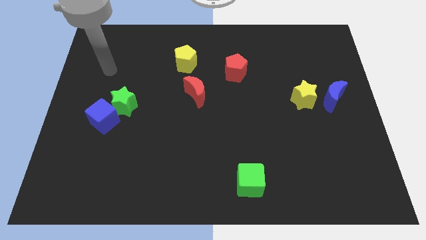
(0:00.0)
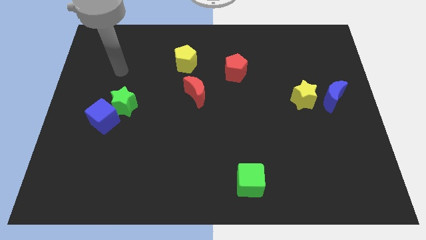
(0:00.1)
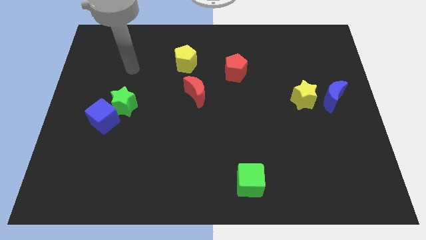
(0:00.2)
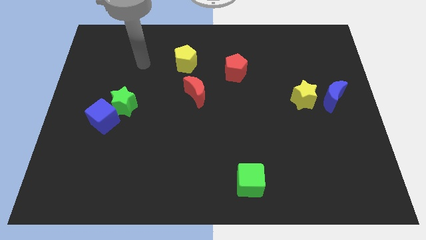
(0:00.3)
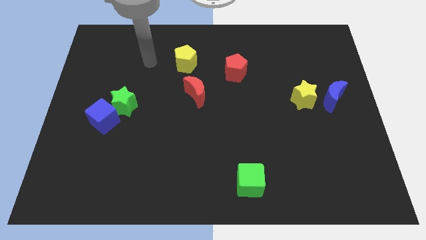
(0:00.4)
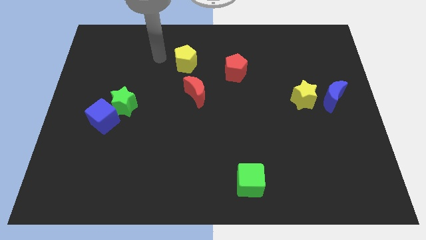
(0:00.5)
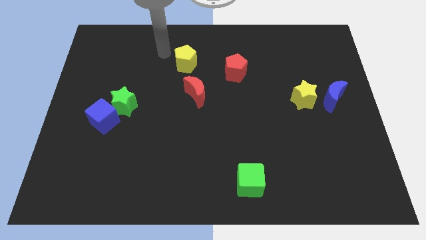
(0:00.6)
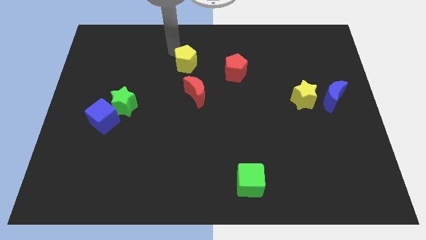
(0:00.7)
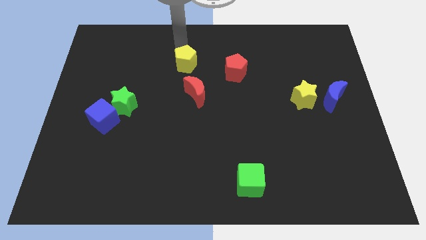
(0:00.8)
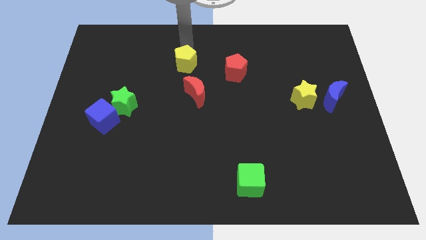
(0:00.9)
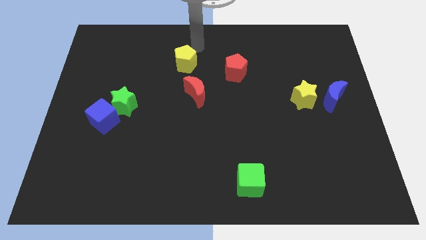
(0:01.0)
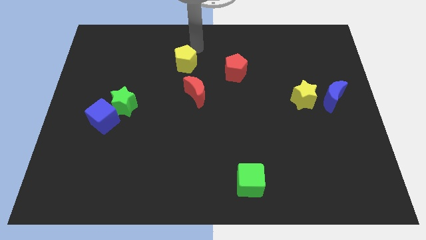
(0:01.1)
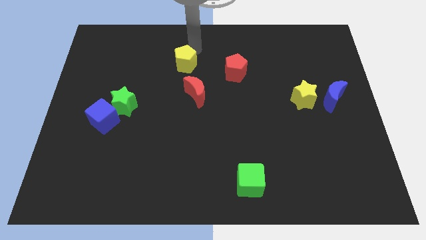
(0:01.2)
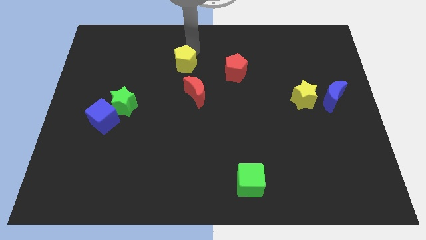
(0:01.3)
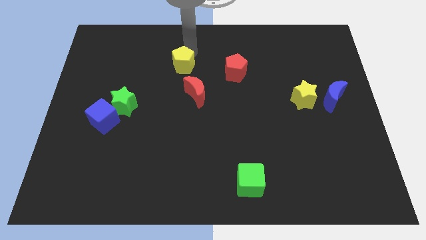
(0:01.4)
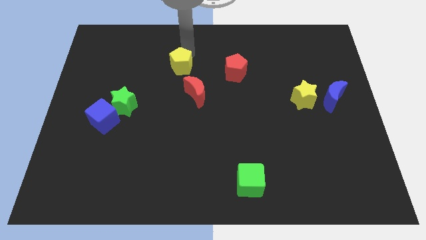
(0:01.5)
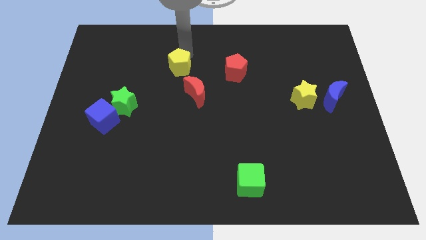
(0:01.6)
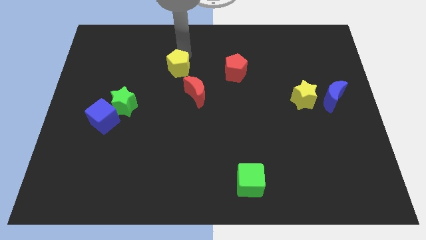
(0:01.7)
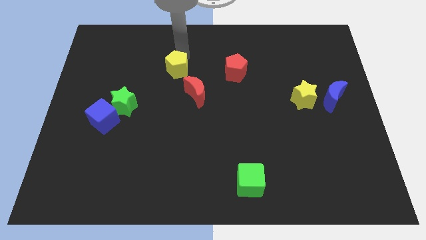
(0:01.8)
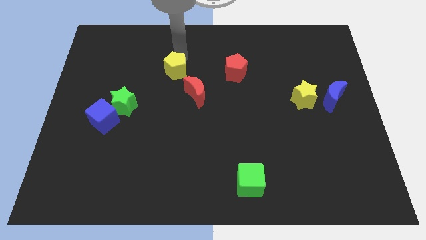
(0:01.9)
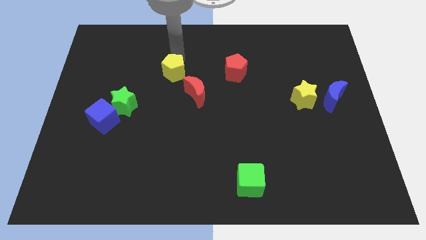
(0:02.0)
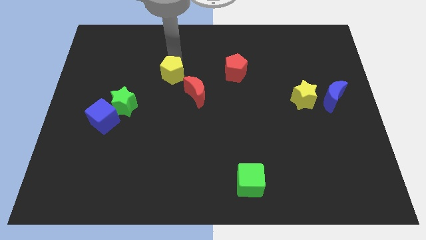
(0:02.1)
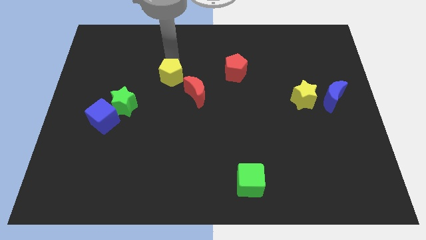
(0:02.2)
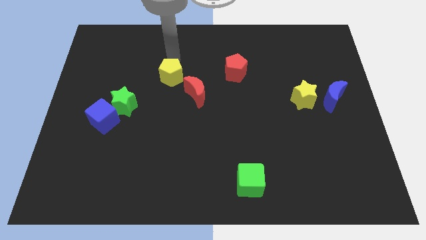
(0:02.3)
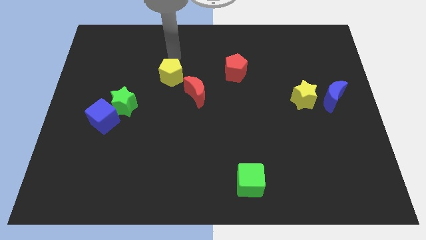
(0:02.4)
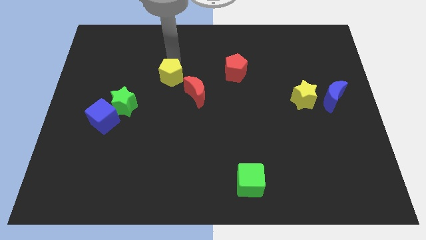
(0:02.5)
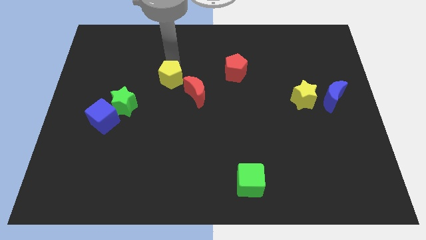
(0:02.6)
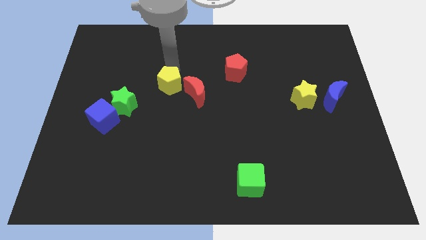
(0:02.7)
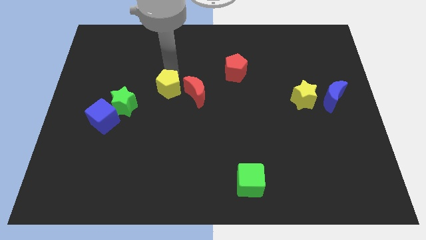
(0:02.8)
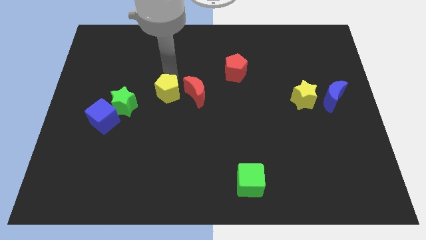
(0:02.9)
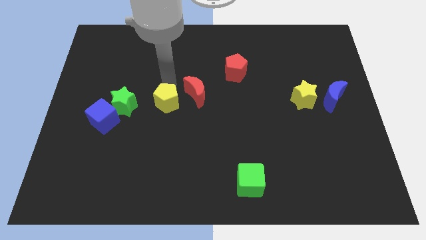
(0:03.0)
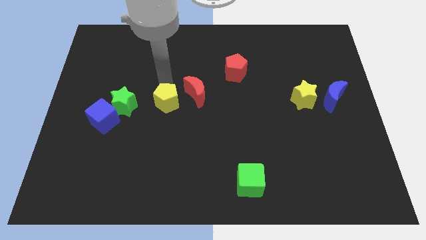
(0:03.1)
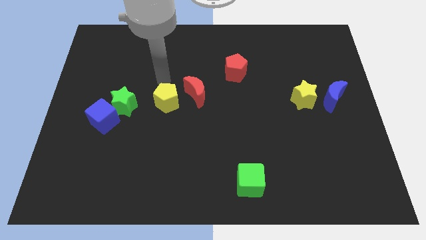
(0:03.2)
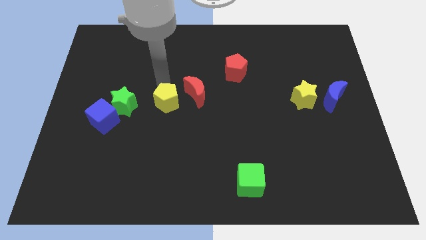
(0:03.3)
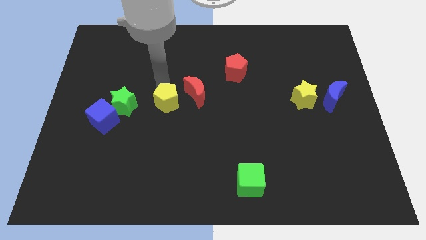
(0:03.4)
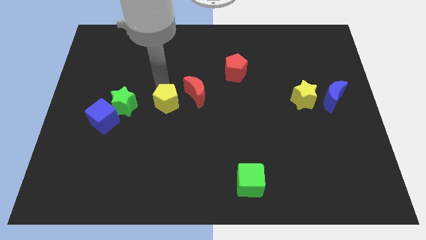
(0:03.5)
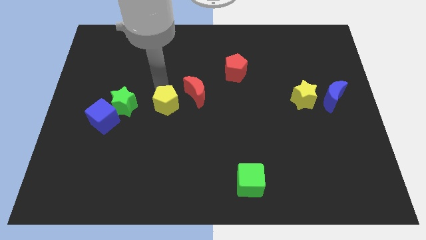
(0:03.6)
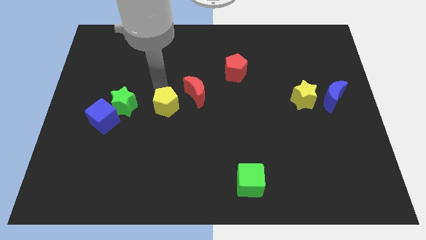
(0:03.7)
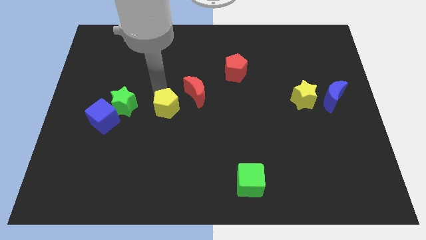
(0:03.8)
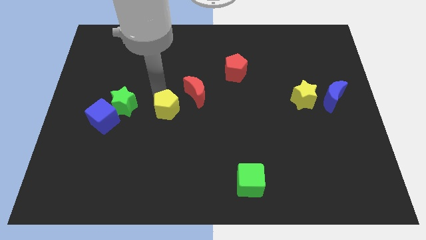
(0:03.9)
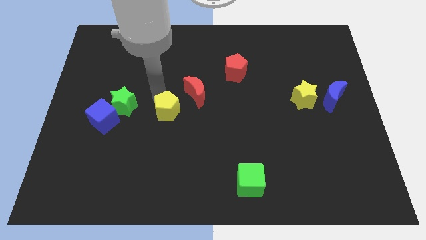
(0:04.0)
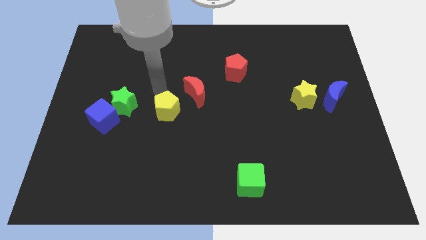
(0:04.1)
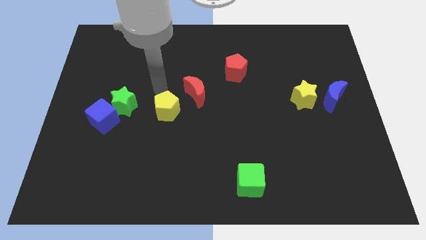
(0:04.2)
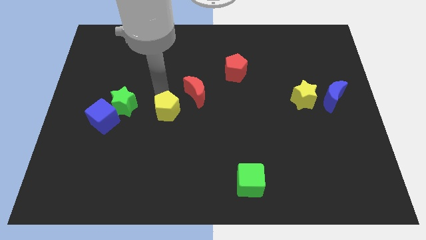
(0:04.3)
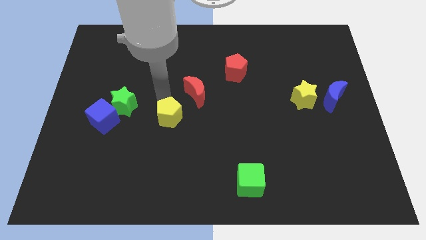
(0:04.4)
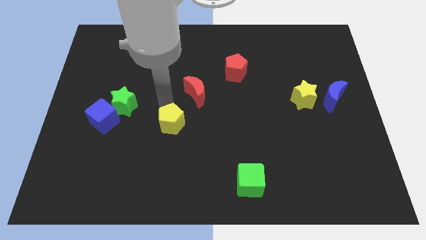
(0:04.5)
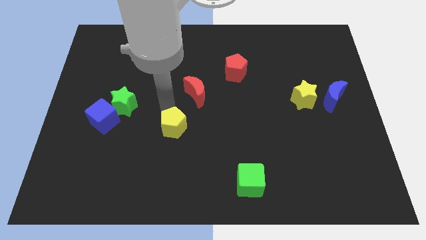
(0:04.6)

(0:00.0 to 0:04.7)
move the yellow pentagon down

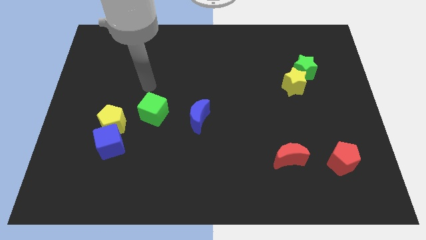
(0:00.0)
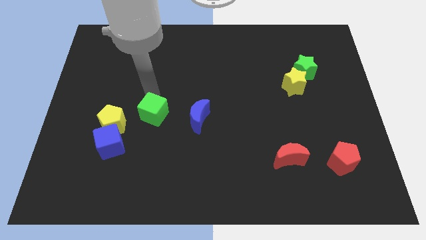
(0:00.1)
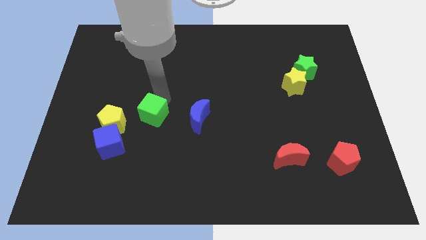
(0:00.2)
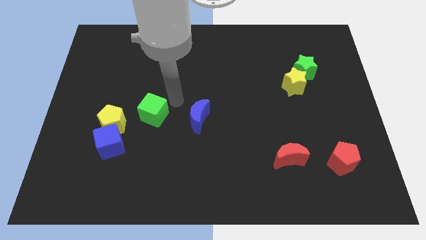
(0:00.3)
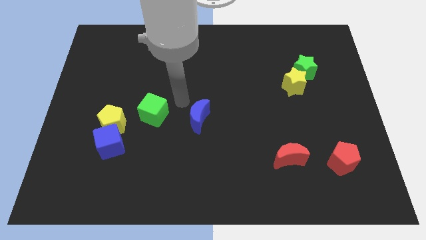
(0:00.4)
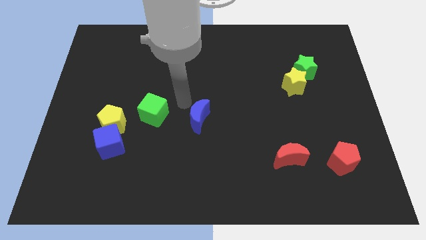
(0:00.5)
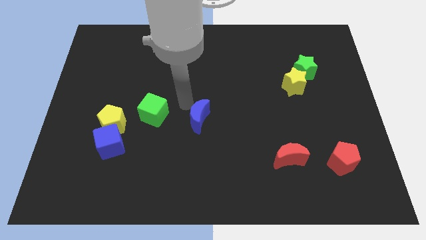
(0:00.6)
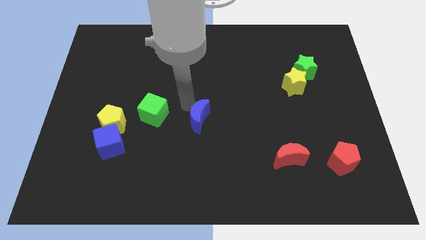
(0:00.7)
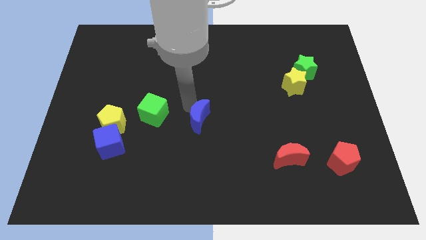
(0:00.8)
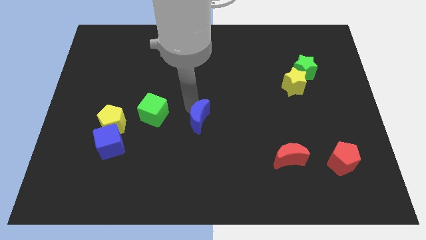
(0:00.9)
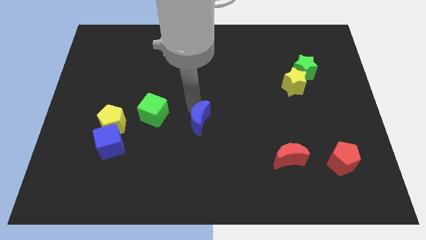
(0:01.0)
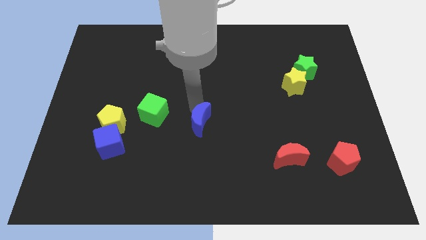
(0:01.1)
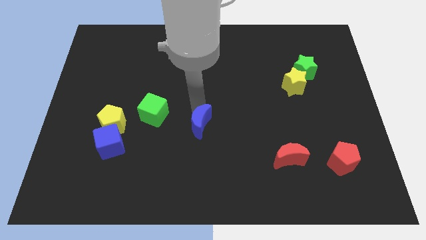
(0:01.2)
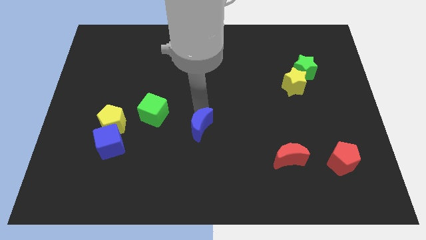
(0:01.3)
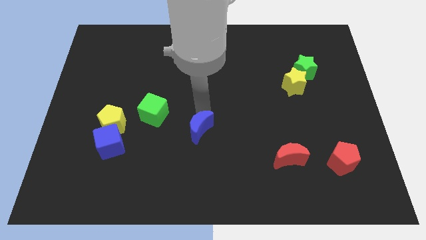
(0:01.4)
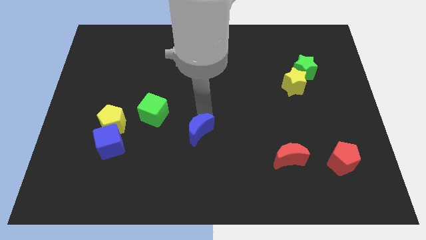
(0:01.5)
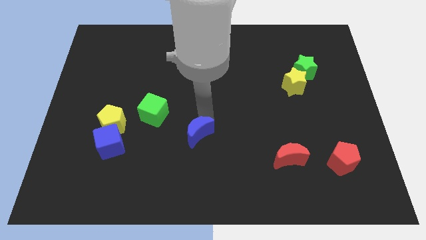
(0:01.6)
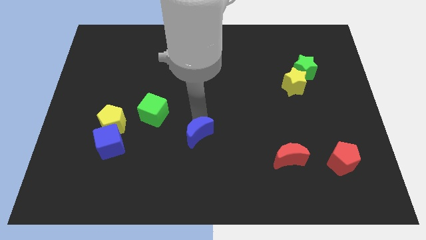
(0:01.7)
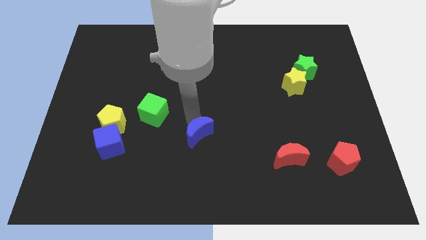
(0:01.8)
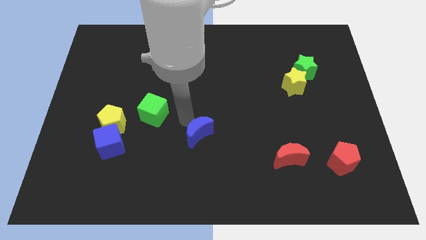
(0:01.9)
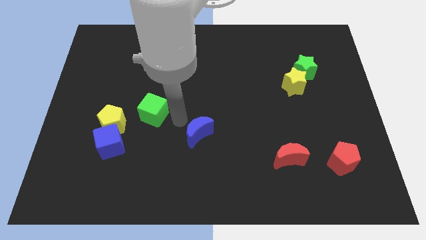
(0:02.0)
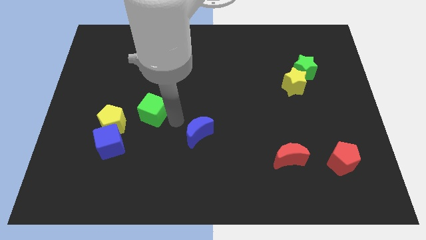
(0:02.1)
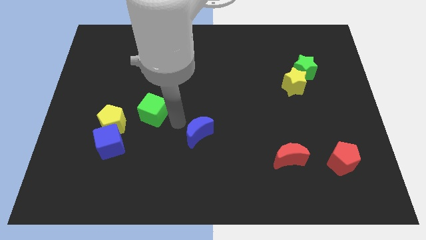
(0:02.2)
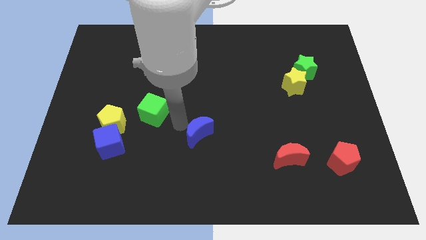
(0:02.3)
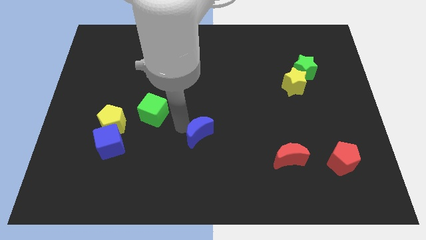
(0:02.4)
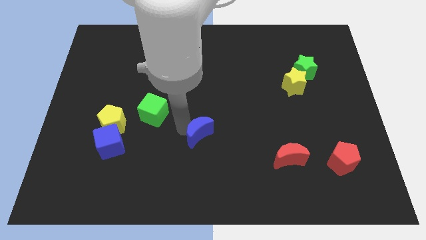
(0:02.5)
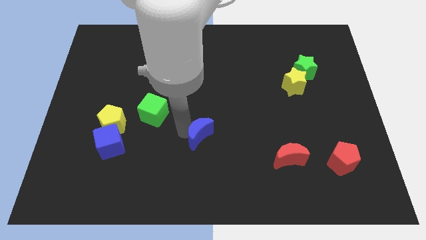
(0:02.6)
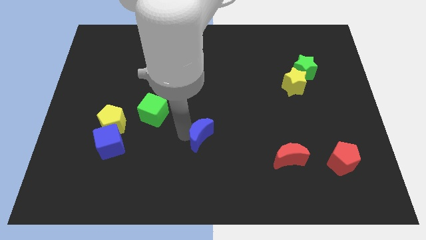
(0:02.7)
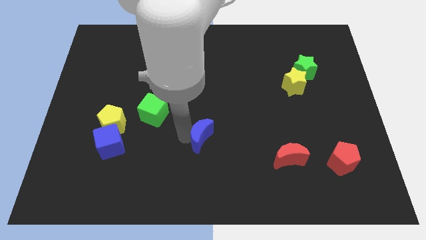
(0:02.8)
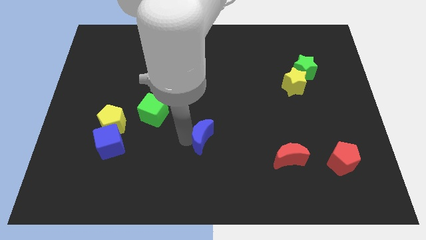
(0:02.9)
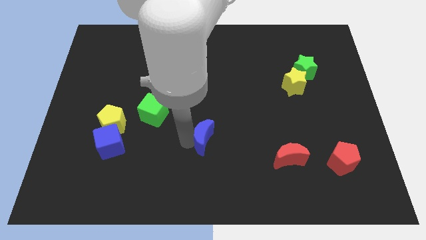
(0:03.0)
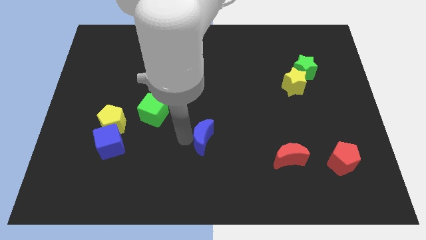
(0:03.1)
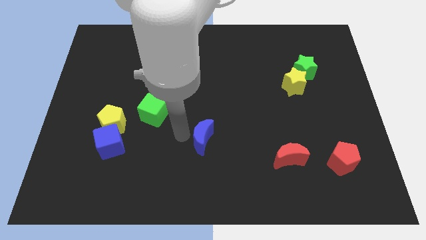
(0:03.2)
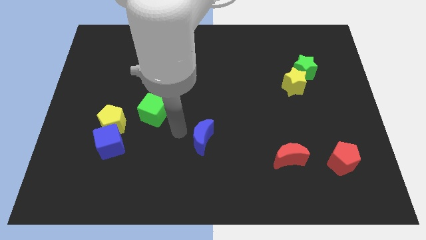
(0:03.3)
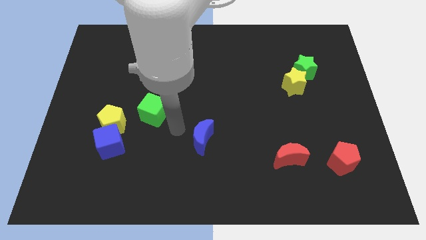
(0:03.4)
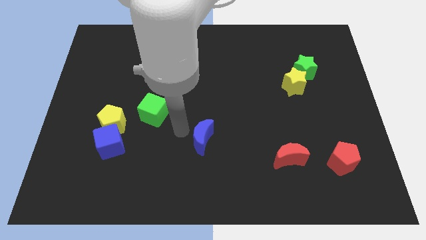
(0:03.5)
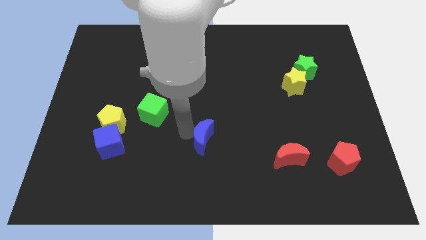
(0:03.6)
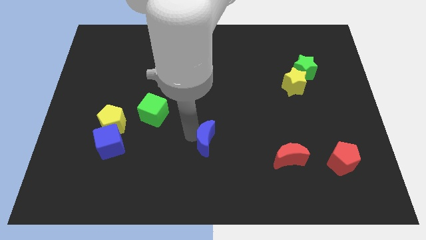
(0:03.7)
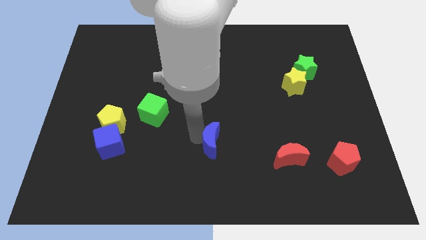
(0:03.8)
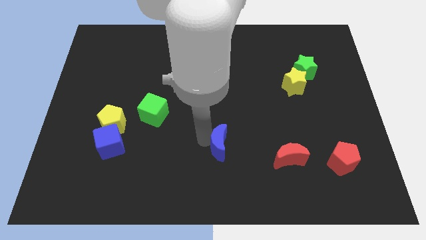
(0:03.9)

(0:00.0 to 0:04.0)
slide the blue moon somewhat down and then to the right
